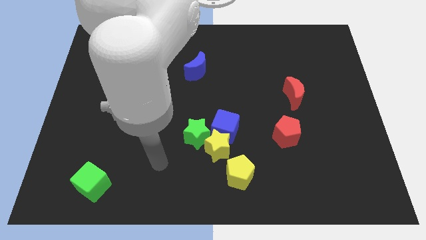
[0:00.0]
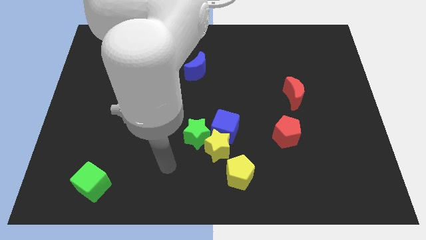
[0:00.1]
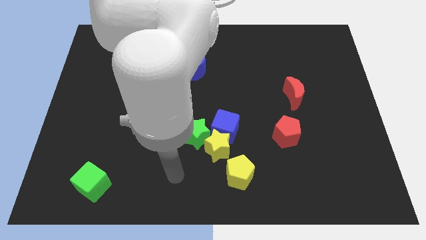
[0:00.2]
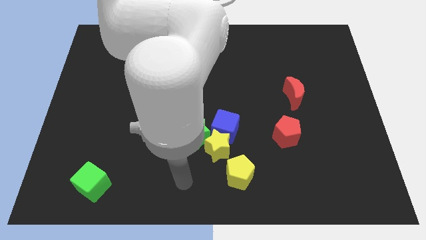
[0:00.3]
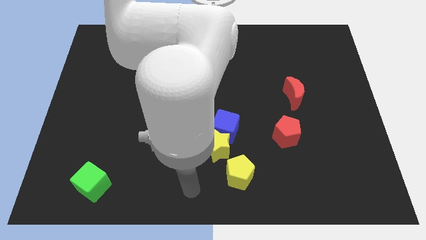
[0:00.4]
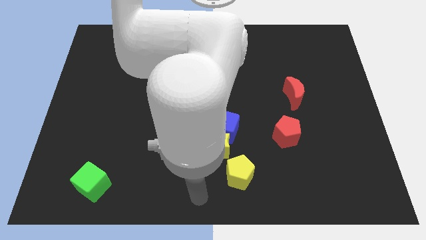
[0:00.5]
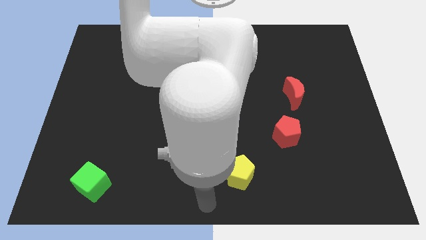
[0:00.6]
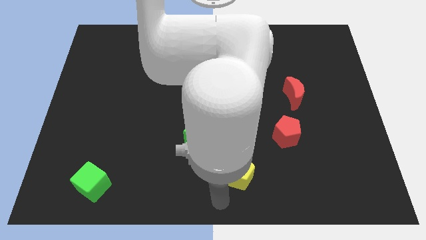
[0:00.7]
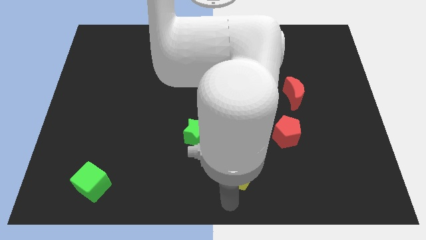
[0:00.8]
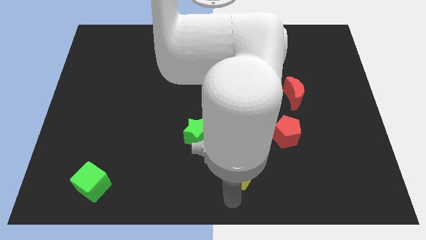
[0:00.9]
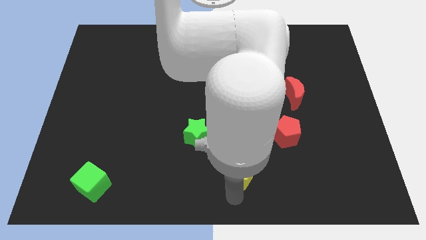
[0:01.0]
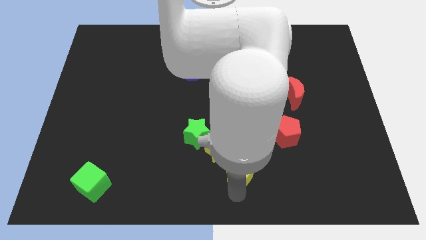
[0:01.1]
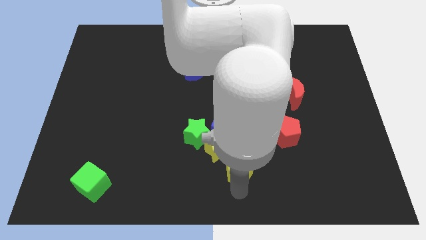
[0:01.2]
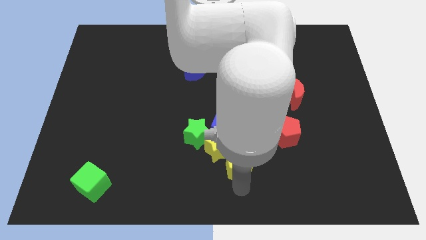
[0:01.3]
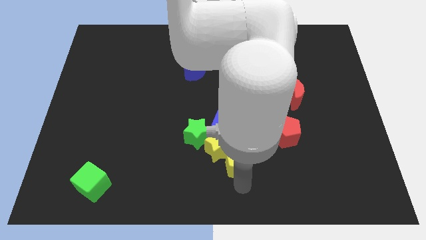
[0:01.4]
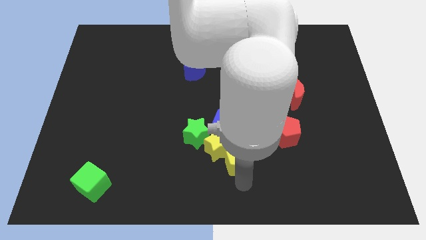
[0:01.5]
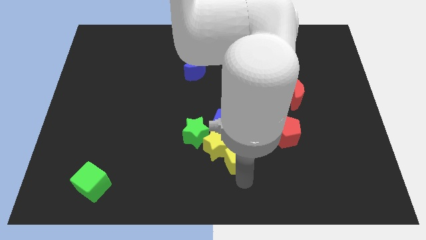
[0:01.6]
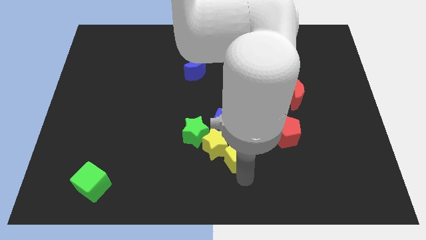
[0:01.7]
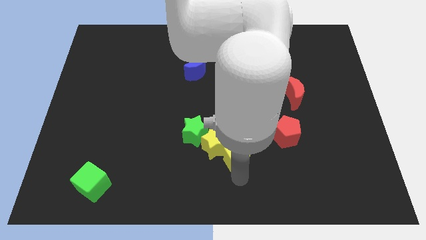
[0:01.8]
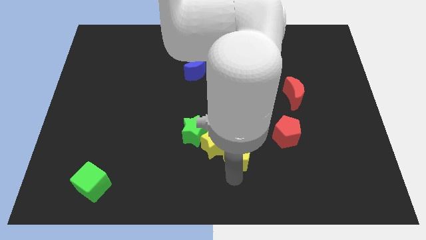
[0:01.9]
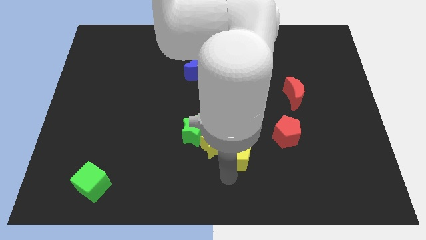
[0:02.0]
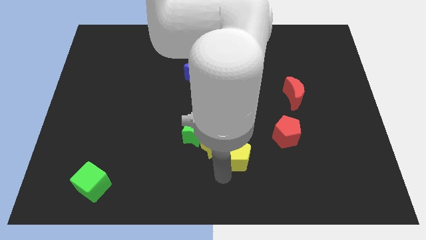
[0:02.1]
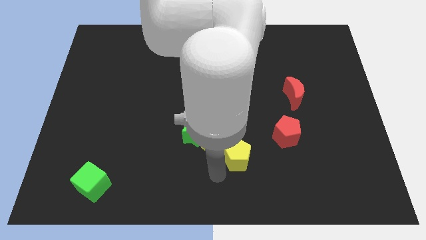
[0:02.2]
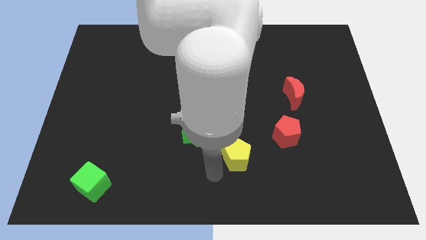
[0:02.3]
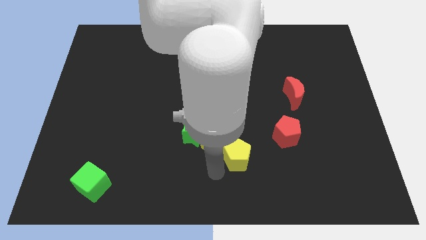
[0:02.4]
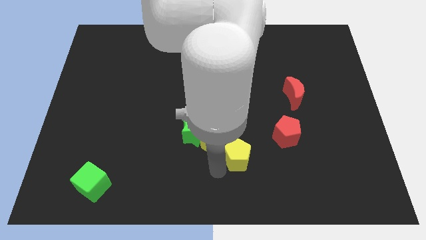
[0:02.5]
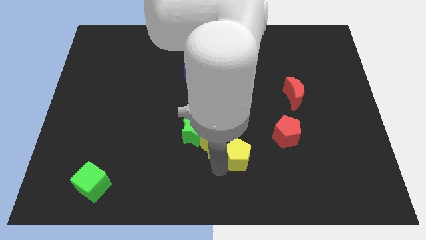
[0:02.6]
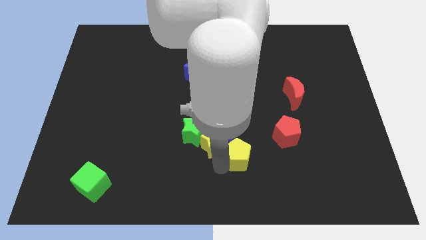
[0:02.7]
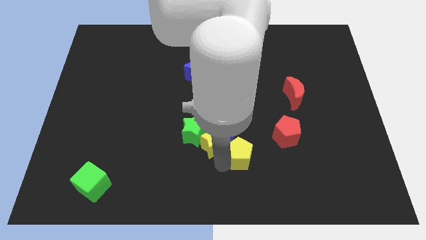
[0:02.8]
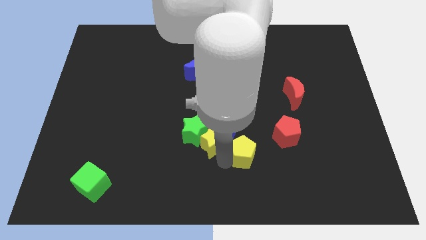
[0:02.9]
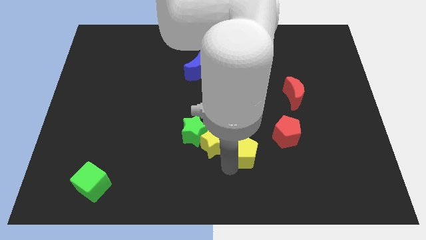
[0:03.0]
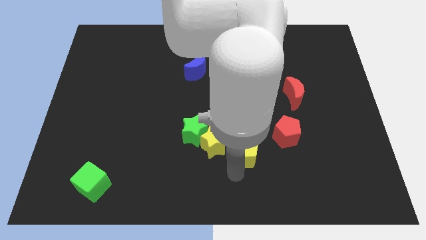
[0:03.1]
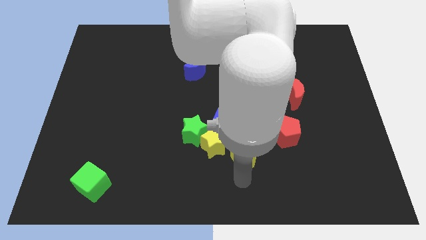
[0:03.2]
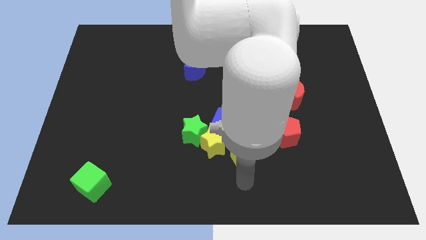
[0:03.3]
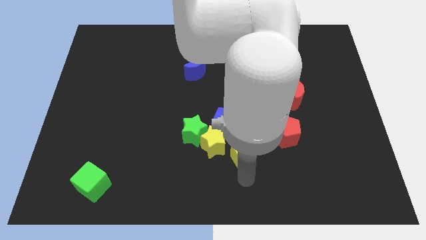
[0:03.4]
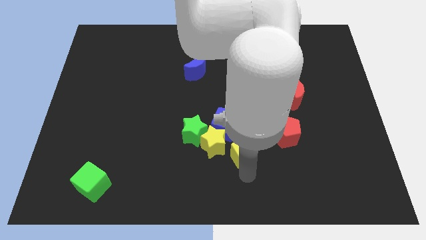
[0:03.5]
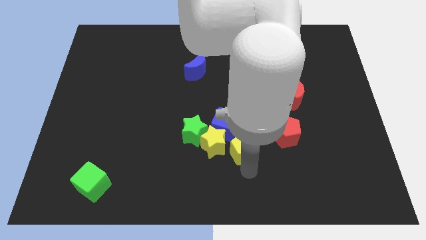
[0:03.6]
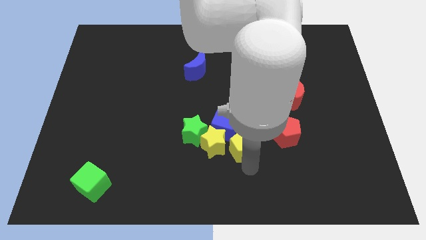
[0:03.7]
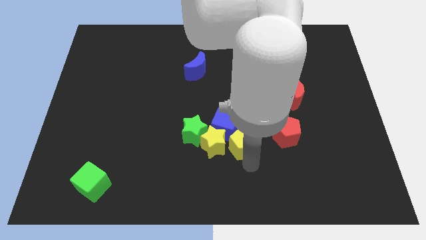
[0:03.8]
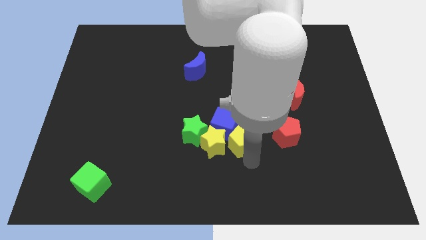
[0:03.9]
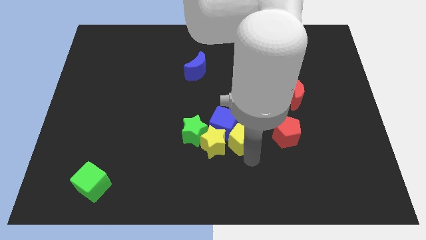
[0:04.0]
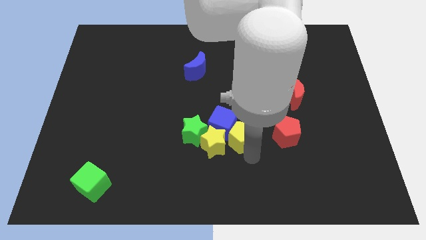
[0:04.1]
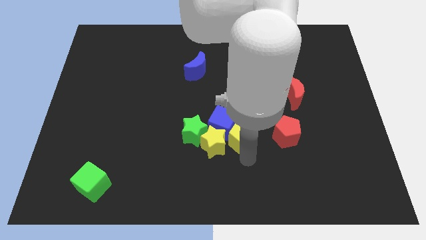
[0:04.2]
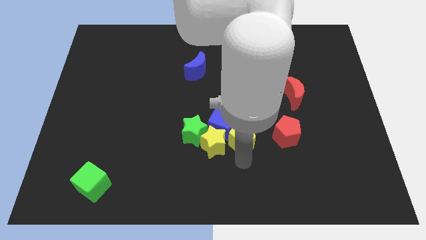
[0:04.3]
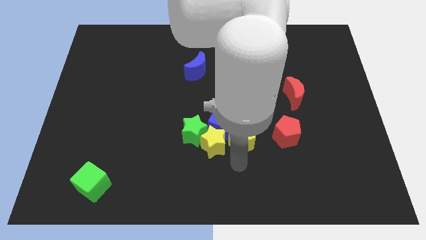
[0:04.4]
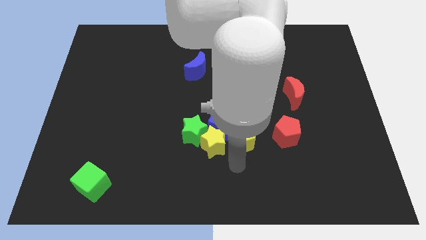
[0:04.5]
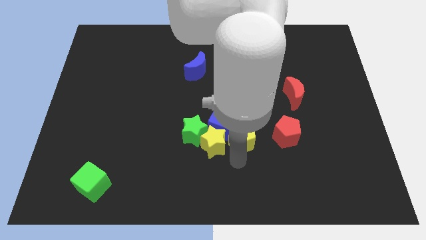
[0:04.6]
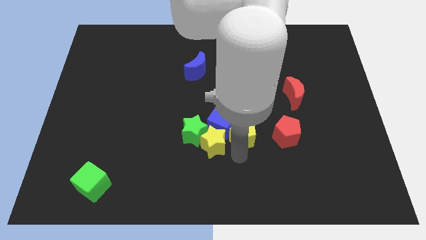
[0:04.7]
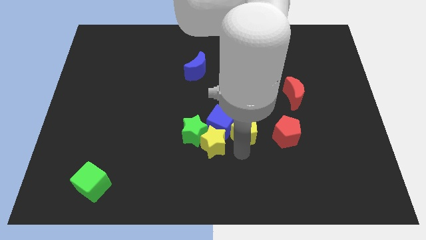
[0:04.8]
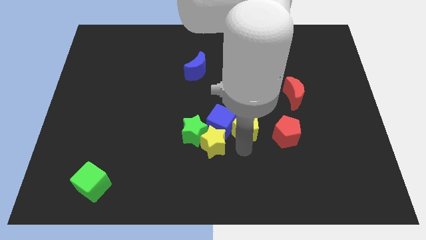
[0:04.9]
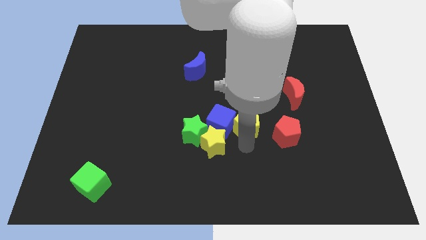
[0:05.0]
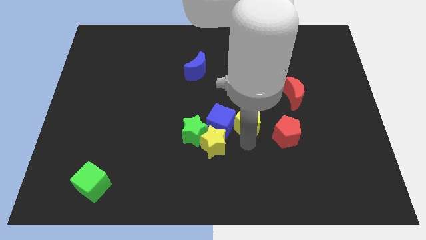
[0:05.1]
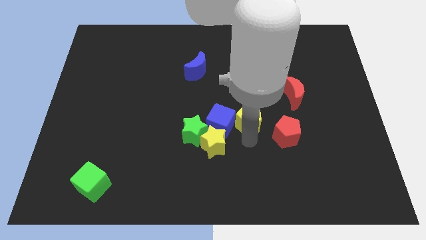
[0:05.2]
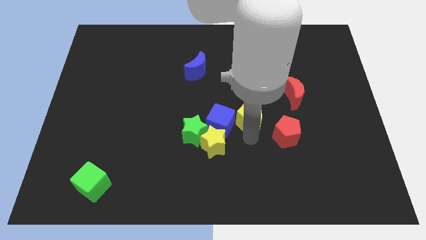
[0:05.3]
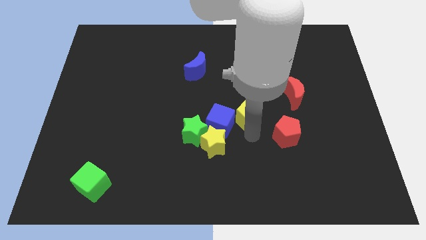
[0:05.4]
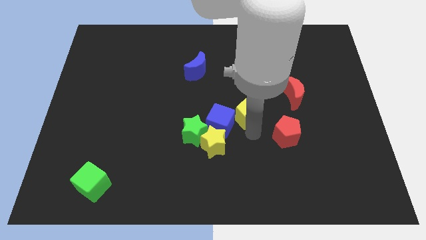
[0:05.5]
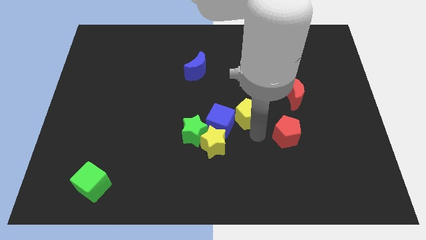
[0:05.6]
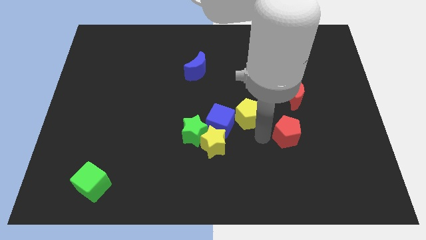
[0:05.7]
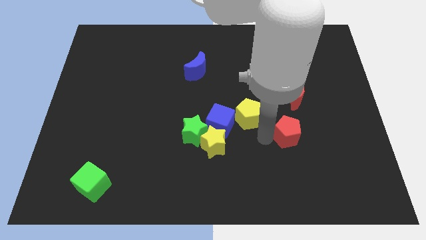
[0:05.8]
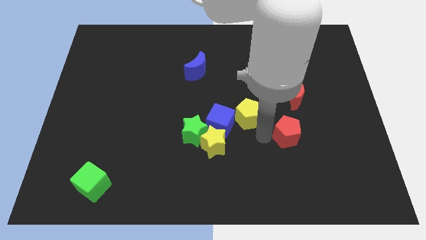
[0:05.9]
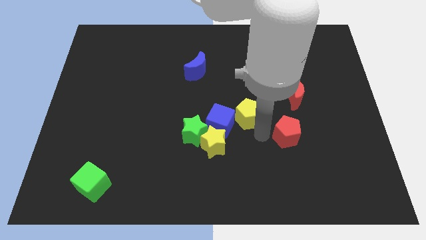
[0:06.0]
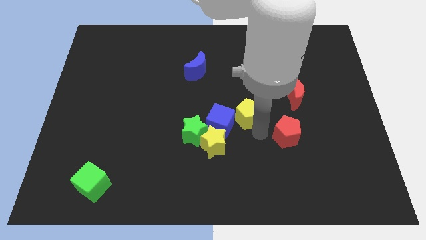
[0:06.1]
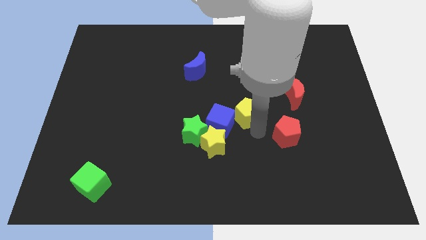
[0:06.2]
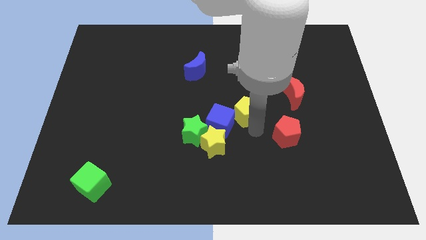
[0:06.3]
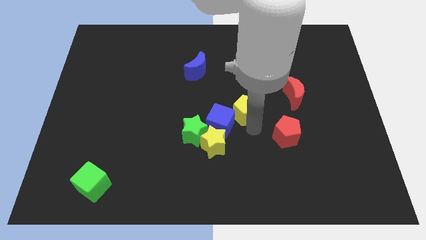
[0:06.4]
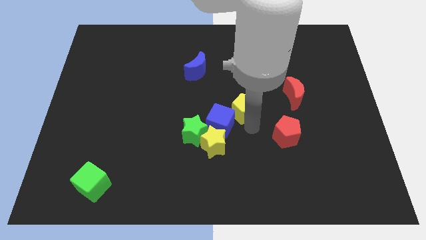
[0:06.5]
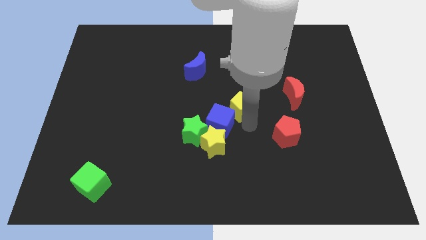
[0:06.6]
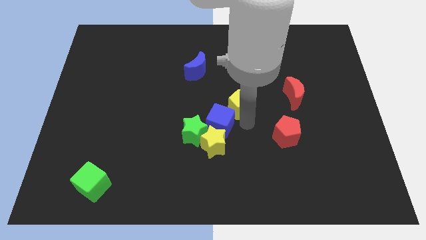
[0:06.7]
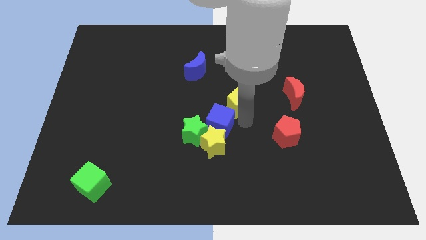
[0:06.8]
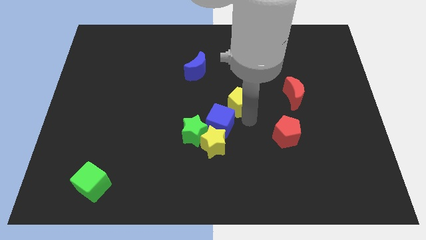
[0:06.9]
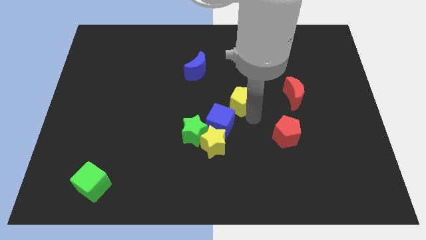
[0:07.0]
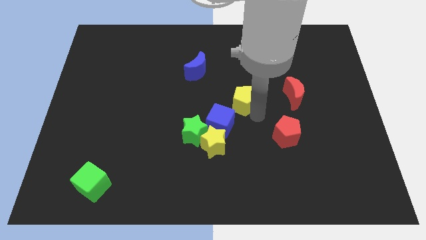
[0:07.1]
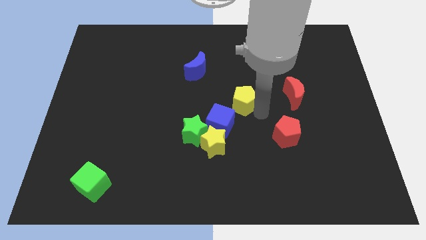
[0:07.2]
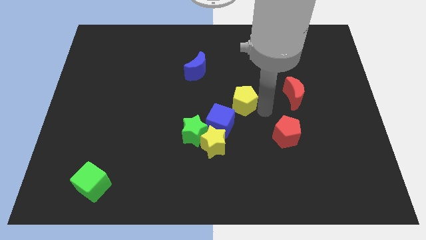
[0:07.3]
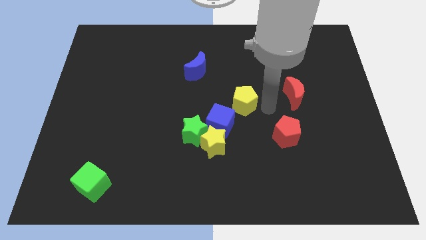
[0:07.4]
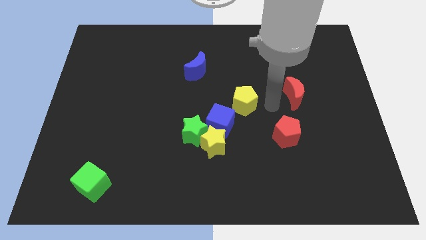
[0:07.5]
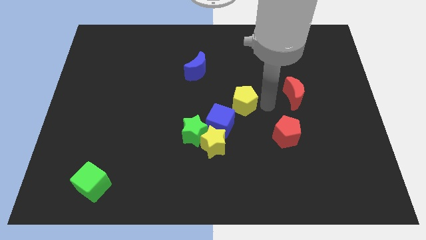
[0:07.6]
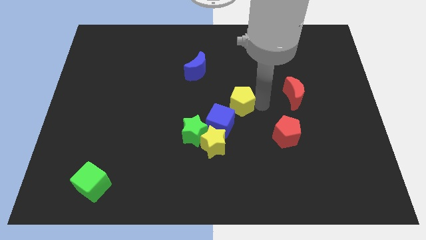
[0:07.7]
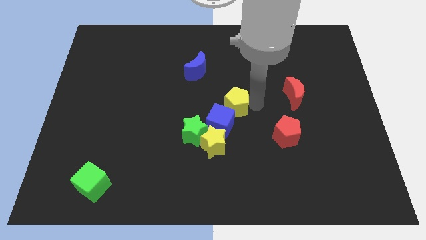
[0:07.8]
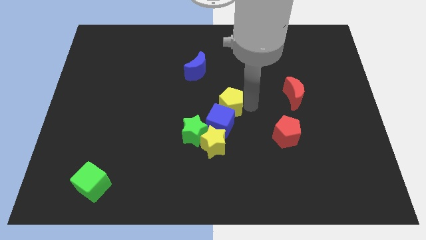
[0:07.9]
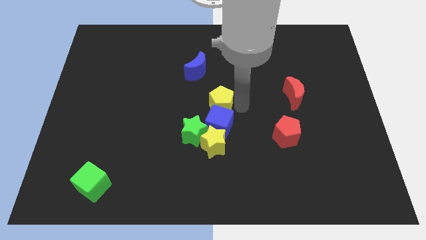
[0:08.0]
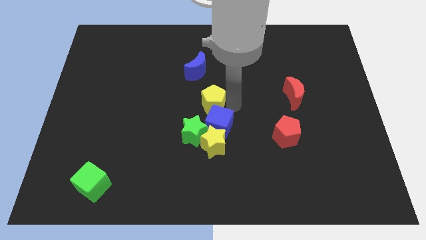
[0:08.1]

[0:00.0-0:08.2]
push the yellow pentagon to the top side of the green star

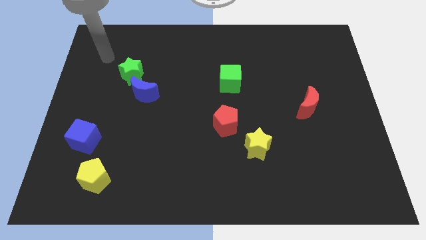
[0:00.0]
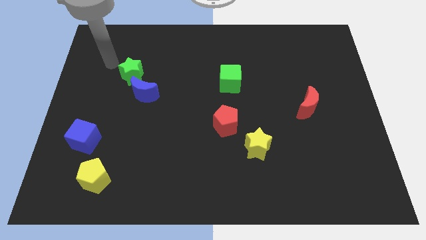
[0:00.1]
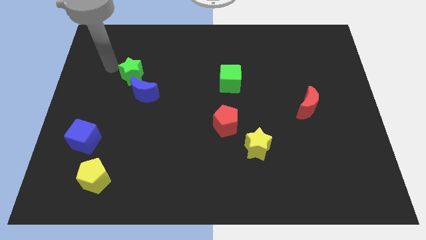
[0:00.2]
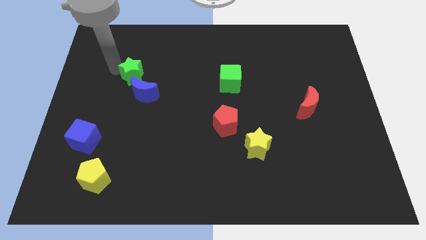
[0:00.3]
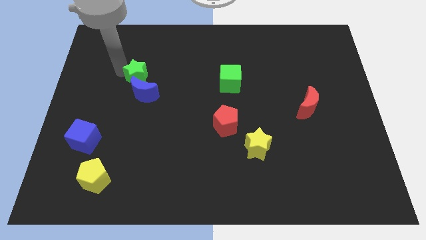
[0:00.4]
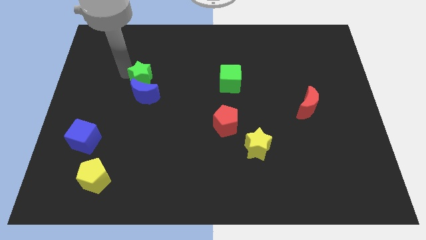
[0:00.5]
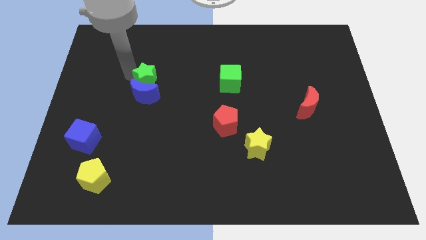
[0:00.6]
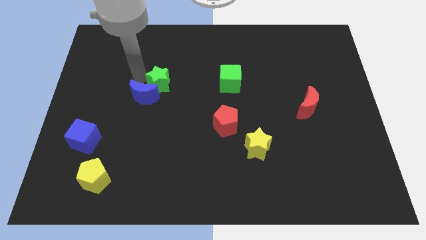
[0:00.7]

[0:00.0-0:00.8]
put the green star to the right side of the blue moon
